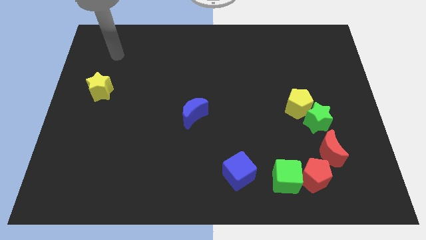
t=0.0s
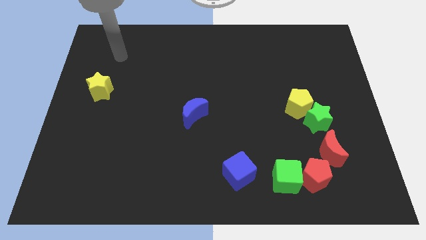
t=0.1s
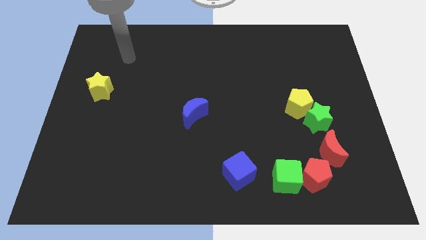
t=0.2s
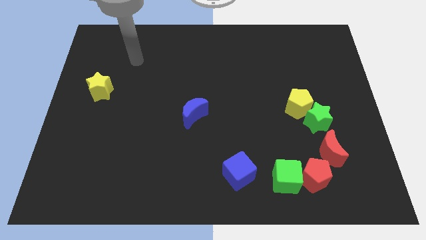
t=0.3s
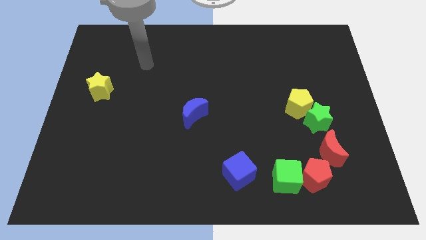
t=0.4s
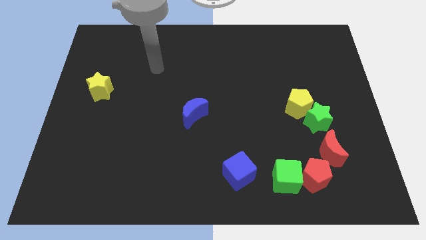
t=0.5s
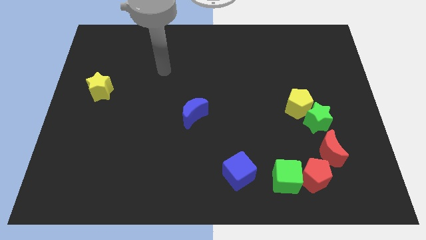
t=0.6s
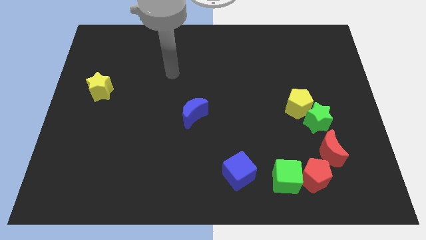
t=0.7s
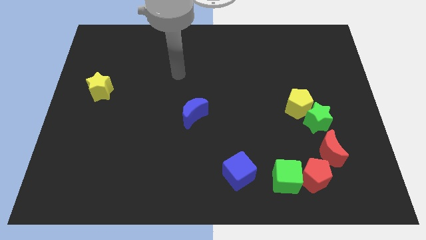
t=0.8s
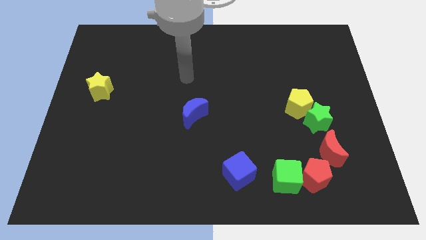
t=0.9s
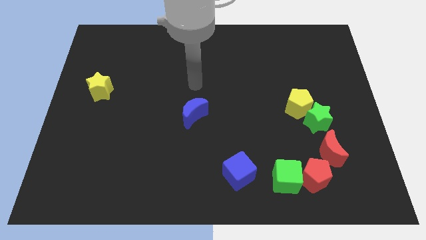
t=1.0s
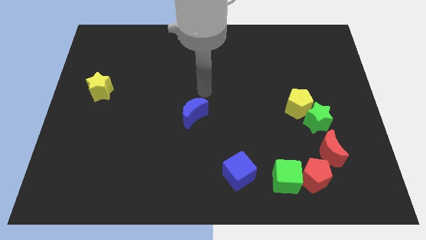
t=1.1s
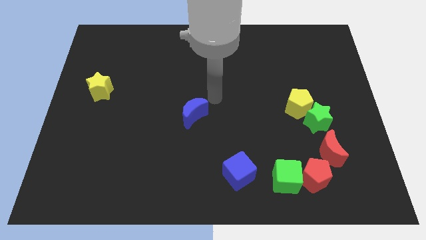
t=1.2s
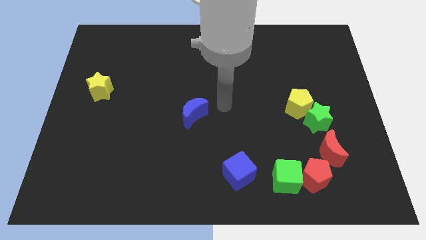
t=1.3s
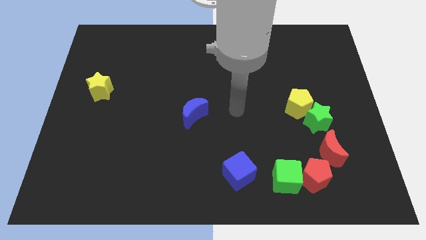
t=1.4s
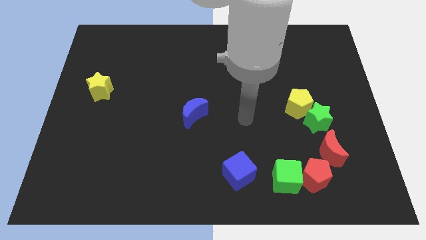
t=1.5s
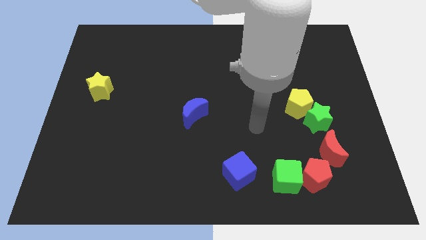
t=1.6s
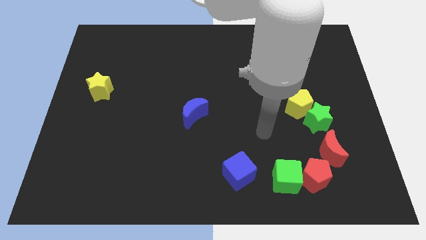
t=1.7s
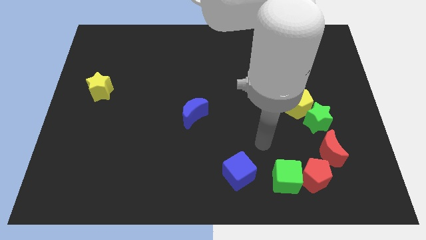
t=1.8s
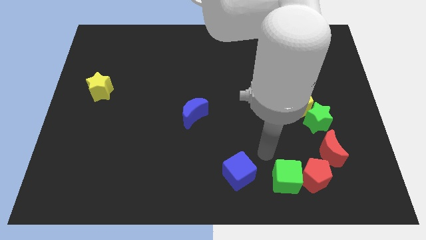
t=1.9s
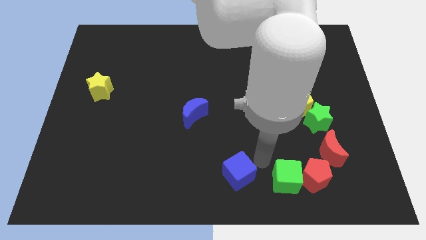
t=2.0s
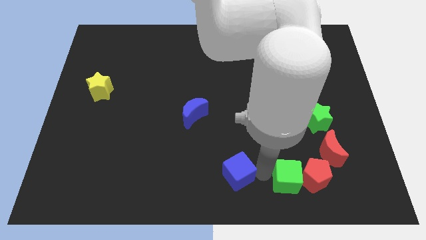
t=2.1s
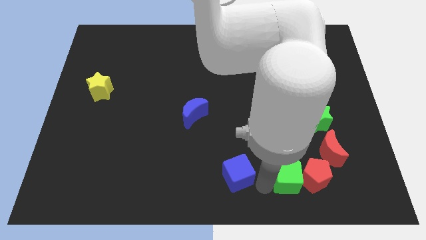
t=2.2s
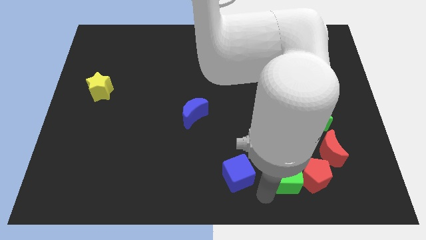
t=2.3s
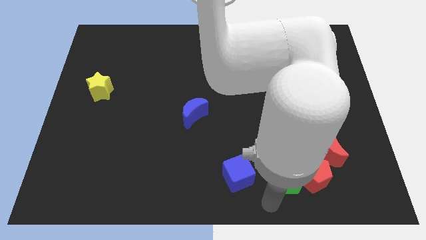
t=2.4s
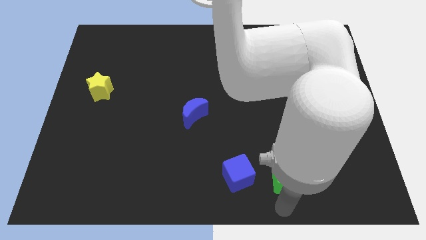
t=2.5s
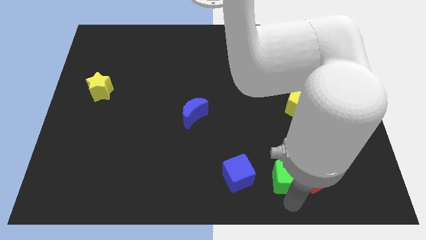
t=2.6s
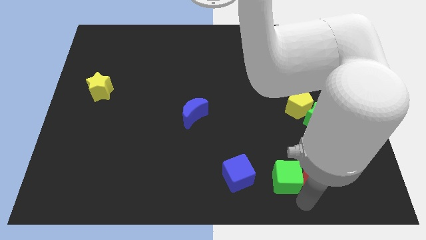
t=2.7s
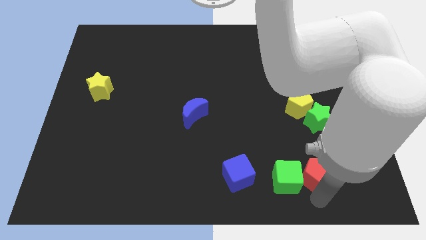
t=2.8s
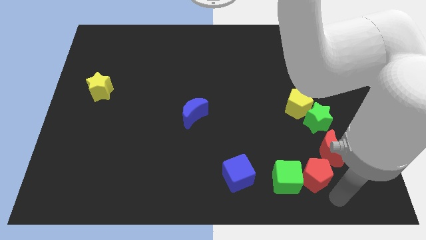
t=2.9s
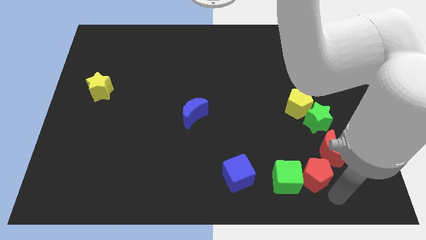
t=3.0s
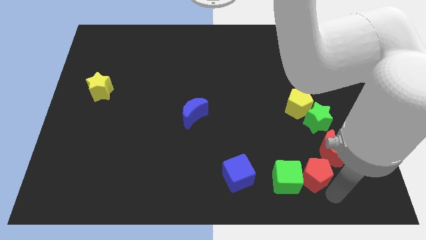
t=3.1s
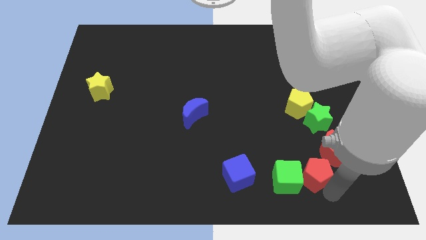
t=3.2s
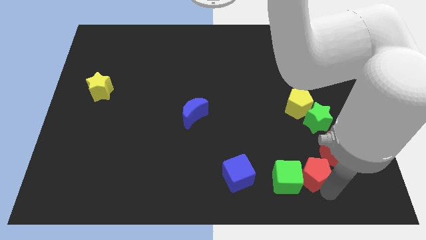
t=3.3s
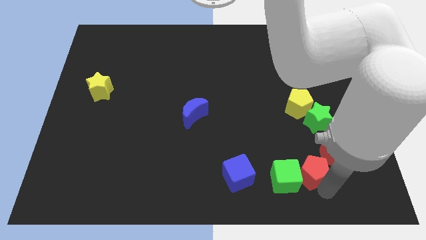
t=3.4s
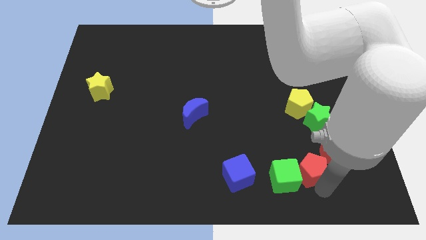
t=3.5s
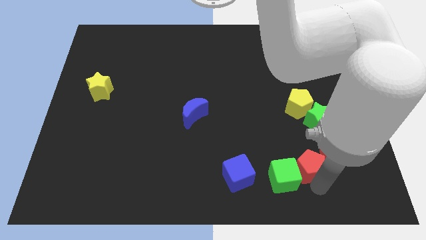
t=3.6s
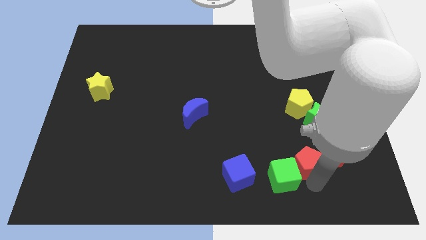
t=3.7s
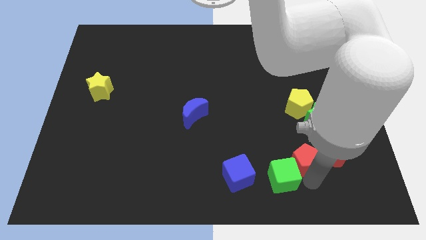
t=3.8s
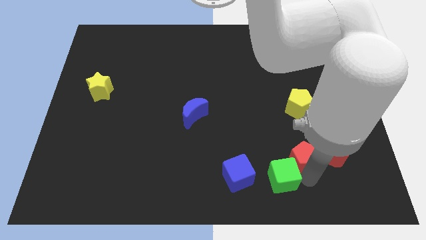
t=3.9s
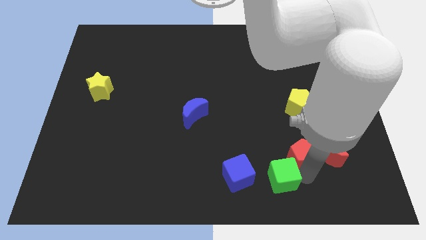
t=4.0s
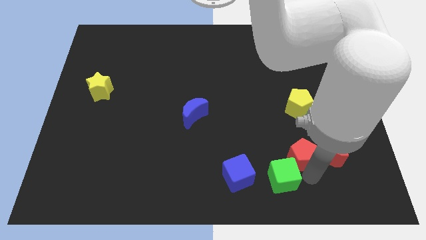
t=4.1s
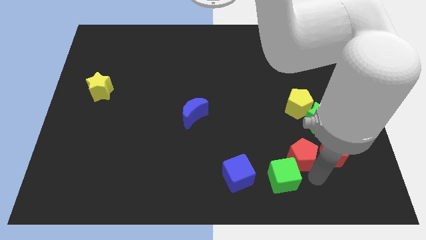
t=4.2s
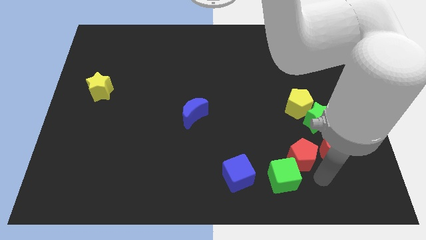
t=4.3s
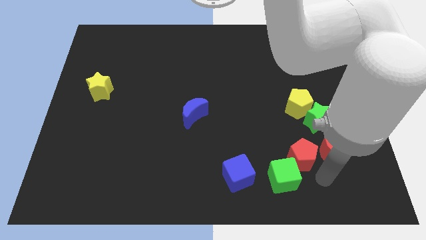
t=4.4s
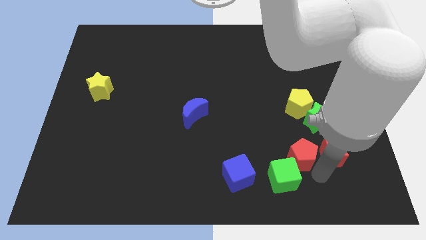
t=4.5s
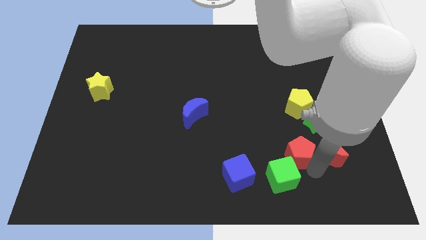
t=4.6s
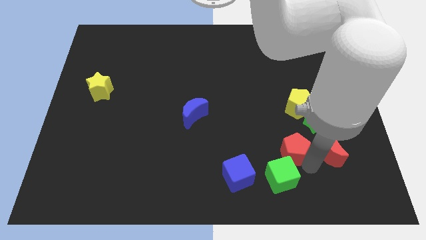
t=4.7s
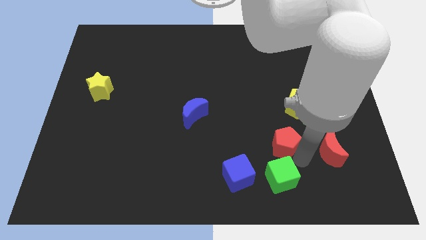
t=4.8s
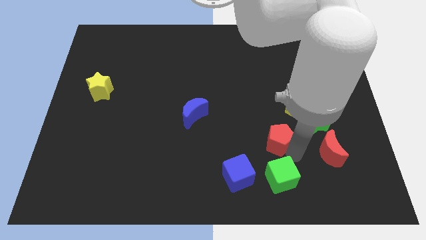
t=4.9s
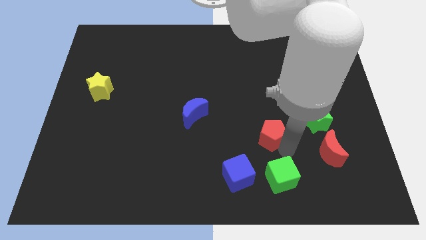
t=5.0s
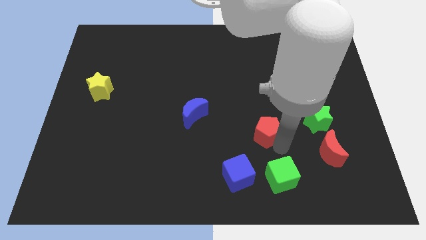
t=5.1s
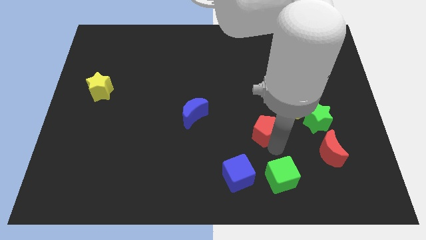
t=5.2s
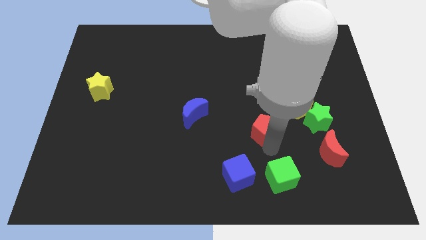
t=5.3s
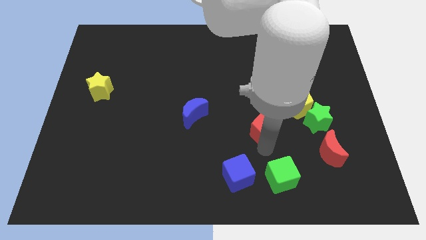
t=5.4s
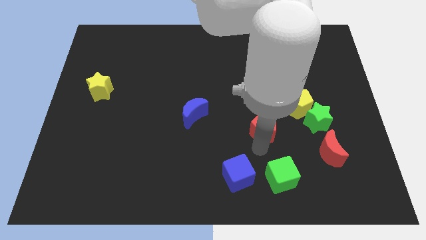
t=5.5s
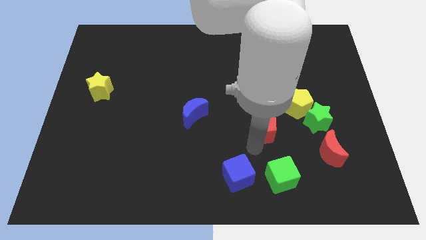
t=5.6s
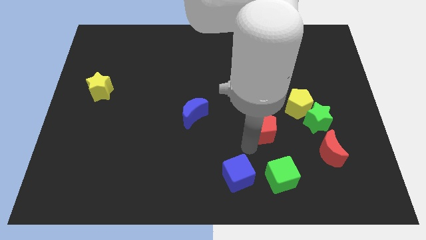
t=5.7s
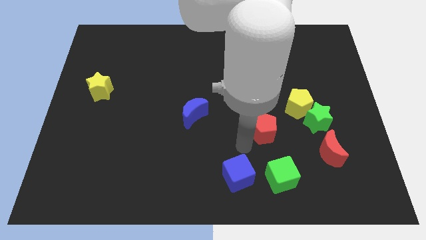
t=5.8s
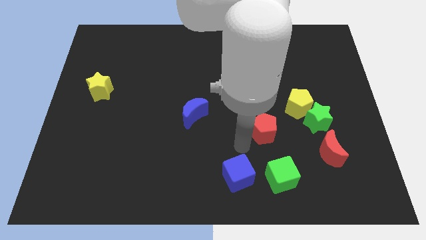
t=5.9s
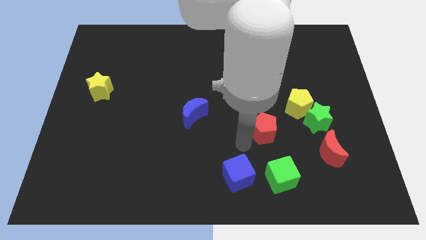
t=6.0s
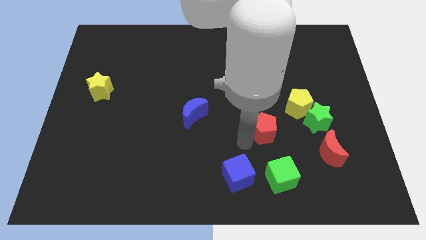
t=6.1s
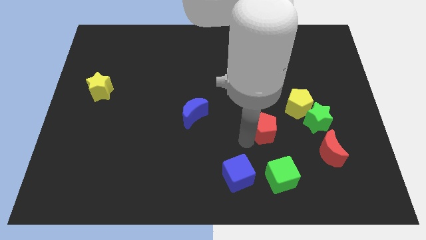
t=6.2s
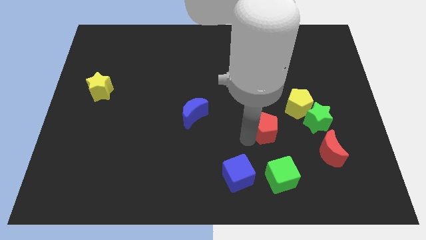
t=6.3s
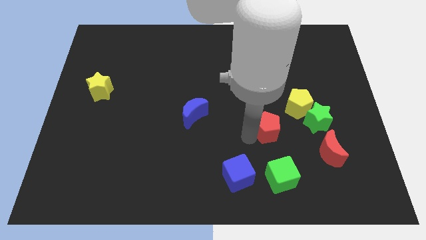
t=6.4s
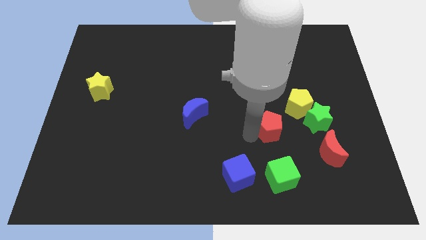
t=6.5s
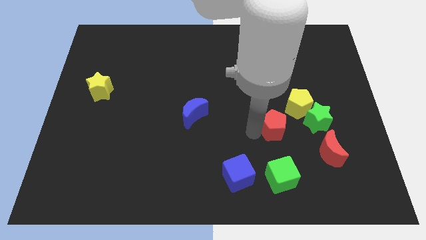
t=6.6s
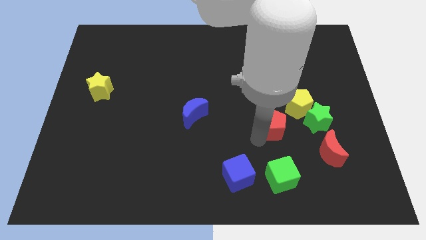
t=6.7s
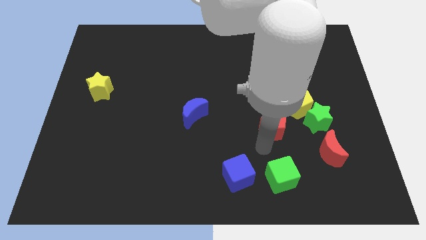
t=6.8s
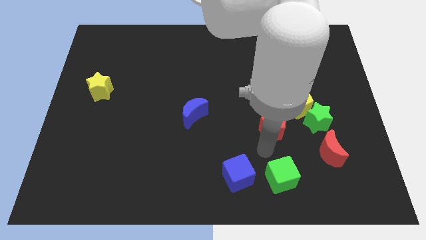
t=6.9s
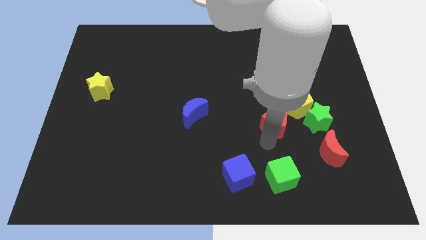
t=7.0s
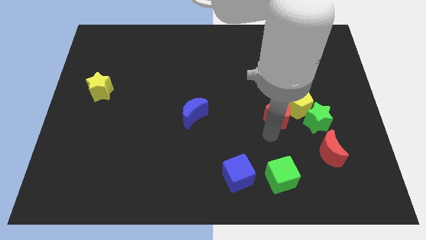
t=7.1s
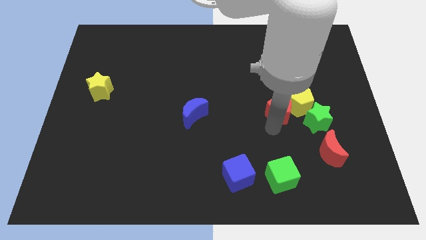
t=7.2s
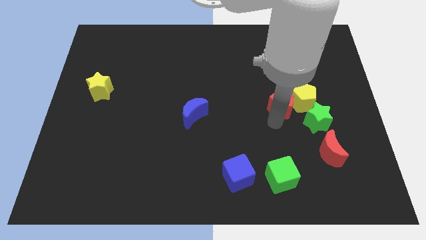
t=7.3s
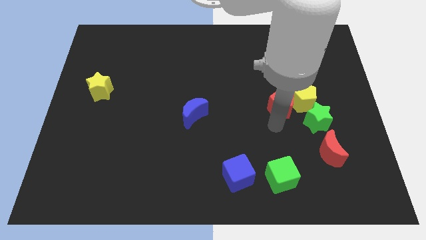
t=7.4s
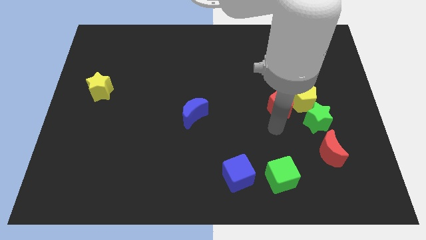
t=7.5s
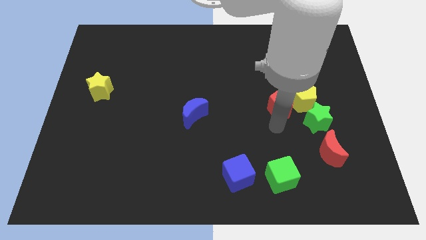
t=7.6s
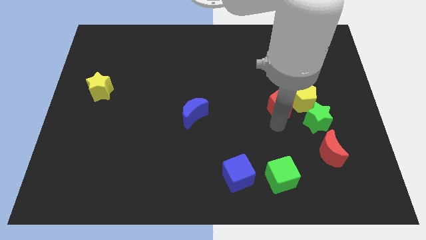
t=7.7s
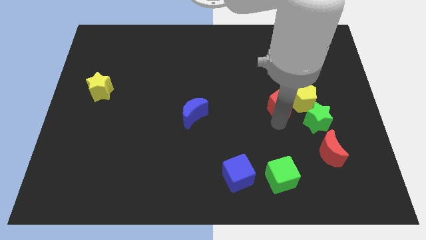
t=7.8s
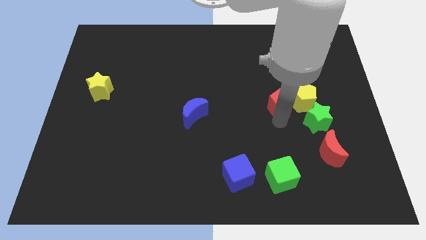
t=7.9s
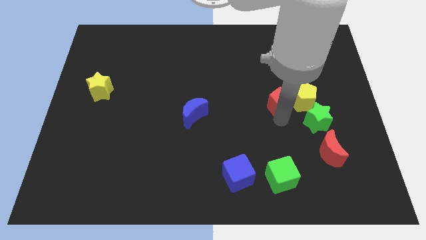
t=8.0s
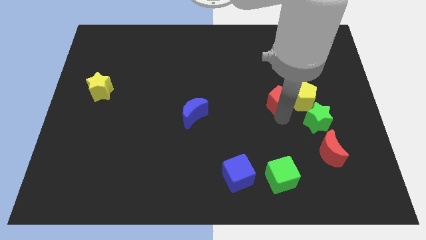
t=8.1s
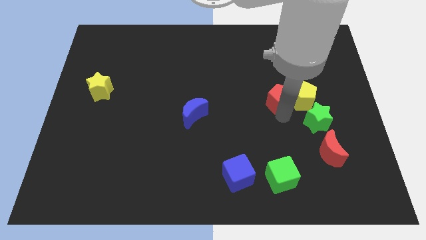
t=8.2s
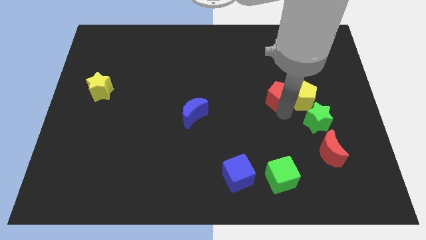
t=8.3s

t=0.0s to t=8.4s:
push the red pentagon upwards

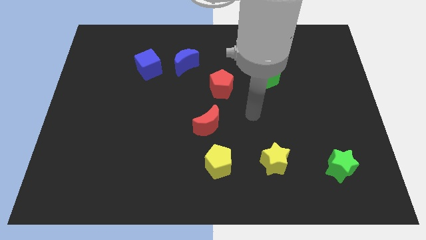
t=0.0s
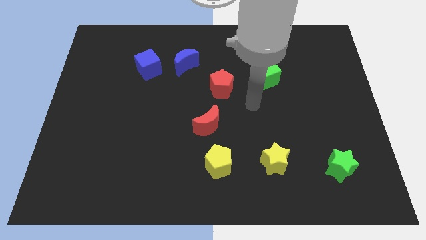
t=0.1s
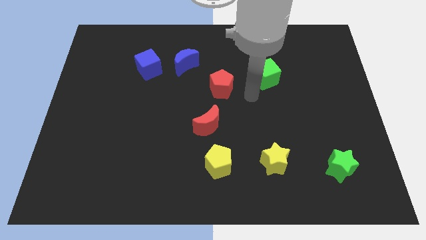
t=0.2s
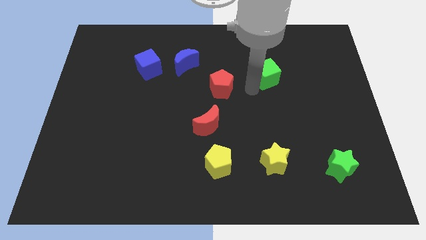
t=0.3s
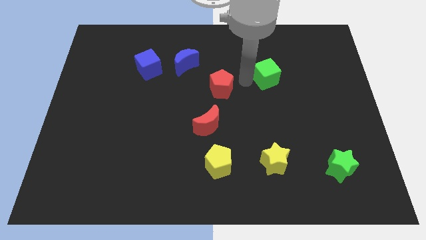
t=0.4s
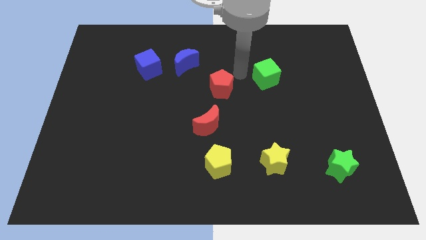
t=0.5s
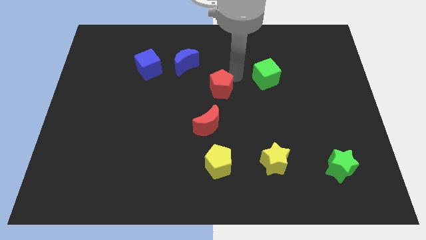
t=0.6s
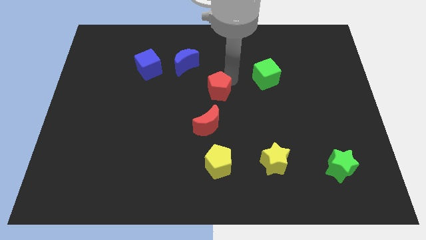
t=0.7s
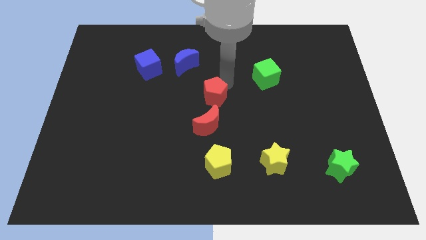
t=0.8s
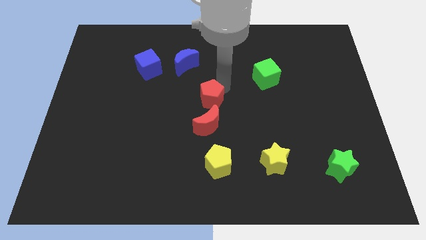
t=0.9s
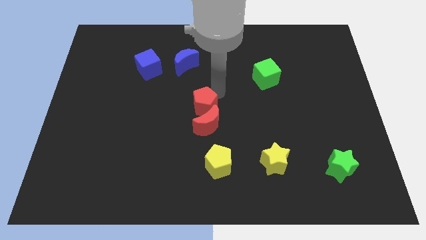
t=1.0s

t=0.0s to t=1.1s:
slightly push the red pentagon down and then to the left
